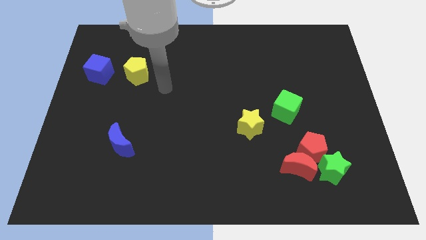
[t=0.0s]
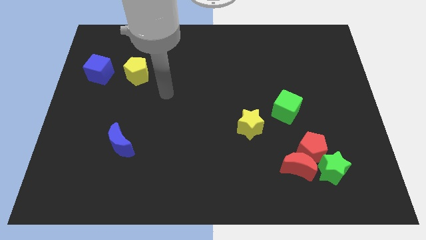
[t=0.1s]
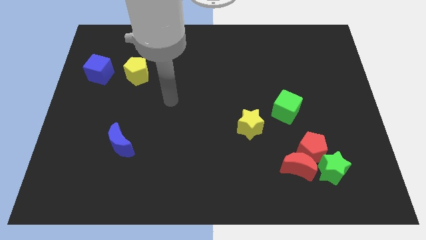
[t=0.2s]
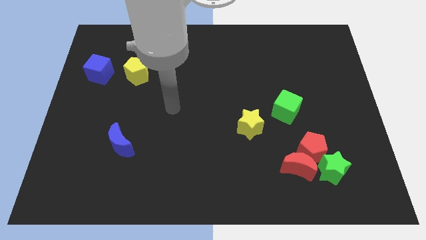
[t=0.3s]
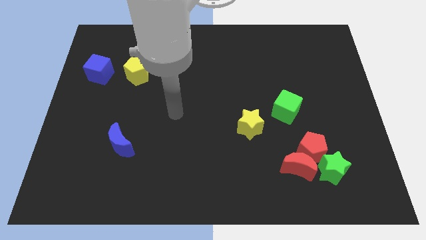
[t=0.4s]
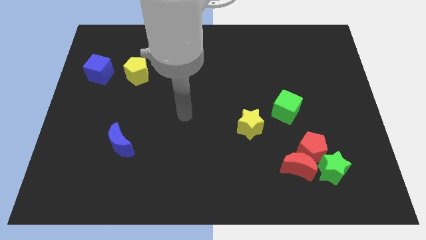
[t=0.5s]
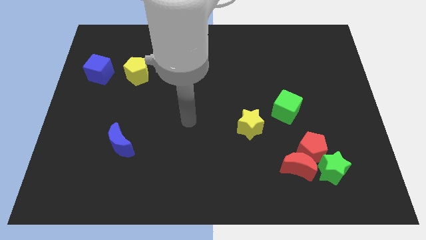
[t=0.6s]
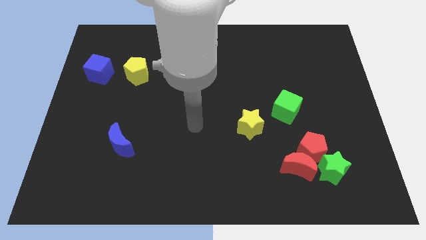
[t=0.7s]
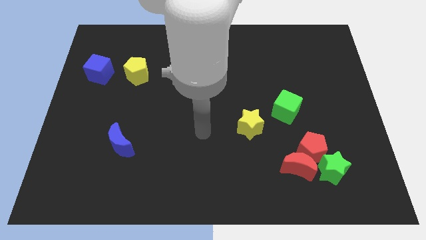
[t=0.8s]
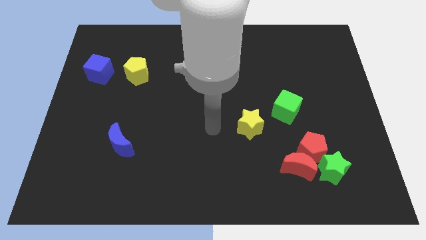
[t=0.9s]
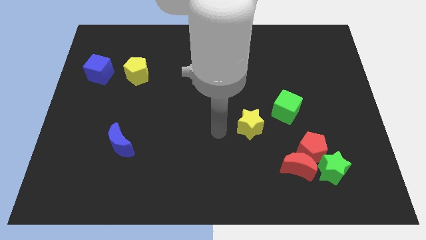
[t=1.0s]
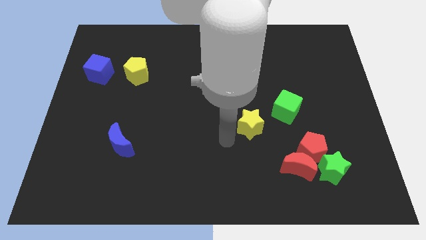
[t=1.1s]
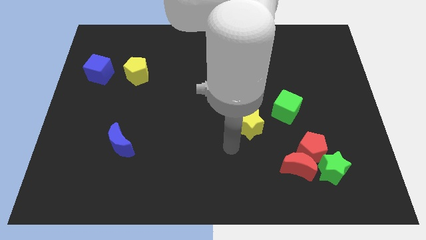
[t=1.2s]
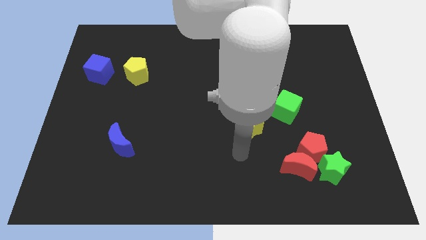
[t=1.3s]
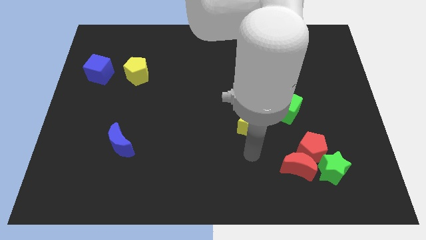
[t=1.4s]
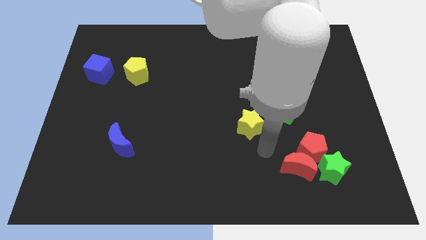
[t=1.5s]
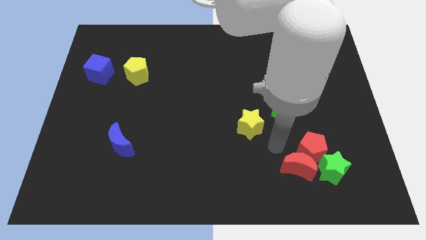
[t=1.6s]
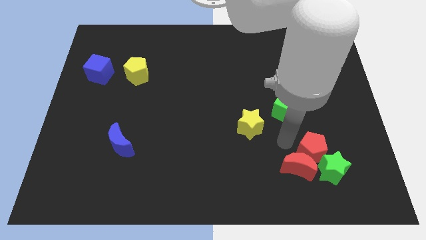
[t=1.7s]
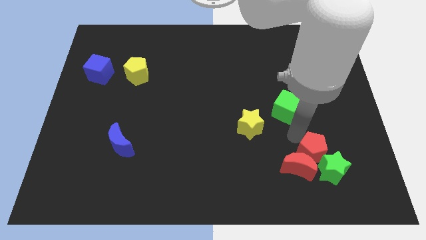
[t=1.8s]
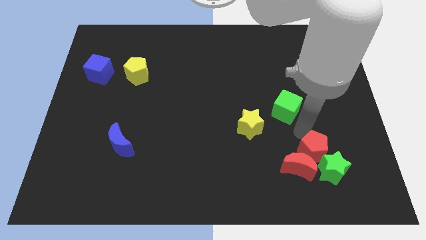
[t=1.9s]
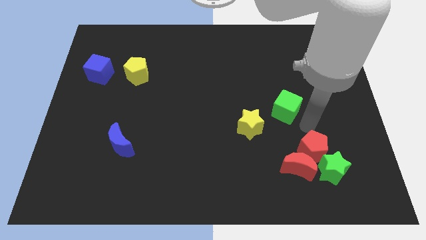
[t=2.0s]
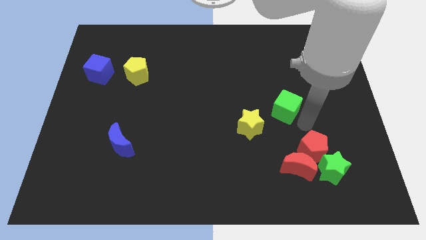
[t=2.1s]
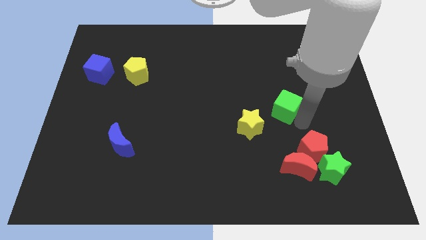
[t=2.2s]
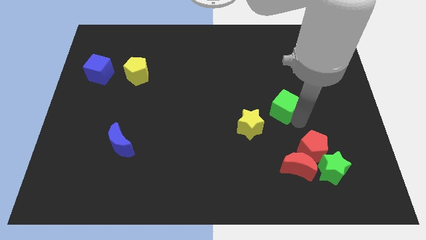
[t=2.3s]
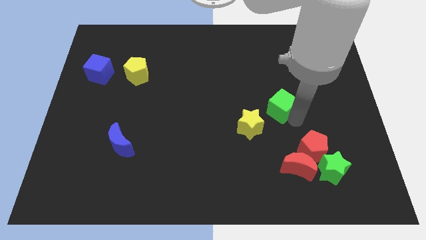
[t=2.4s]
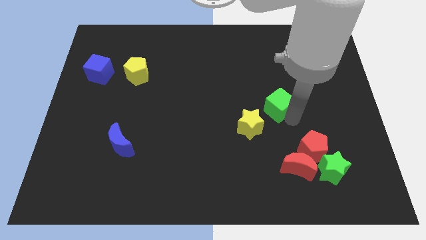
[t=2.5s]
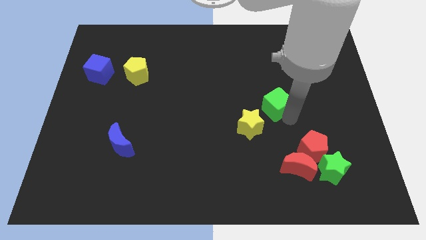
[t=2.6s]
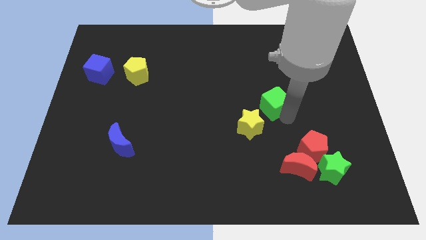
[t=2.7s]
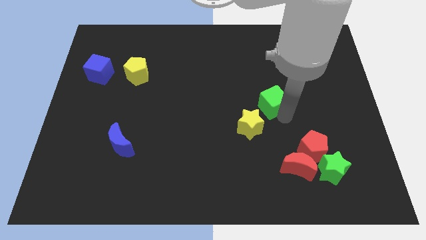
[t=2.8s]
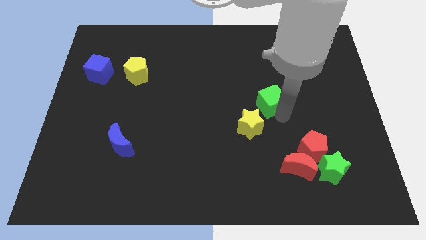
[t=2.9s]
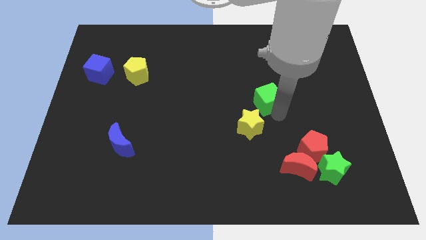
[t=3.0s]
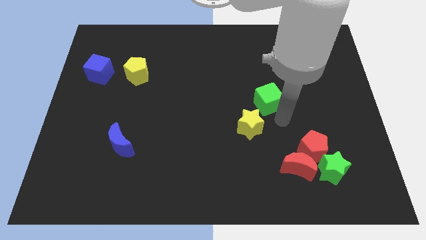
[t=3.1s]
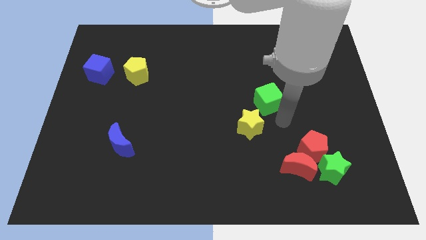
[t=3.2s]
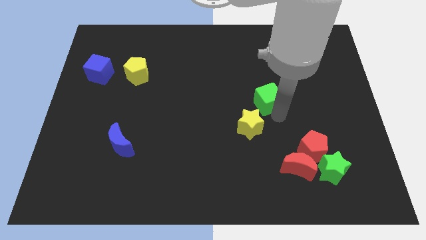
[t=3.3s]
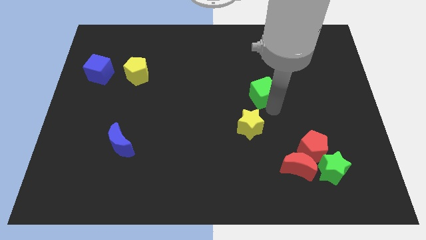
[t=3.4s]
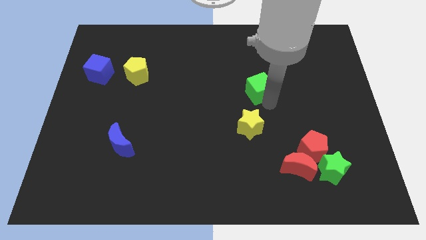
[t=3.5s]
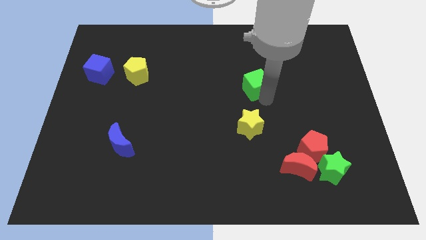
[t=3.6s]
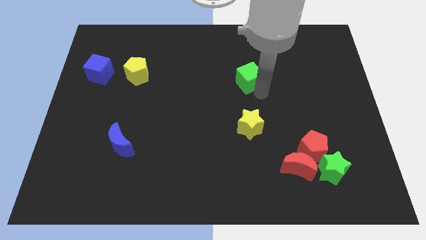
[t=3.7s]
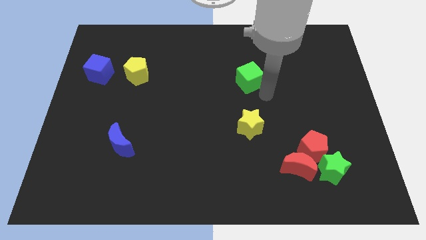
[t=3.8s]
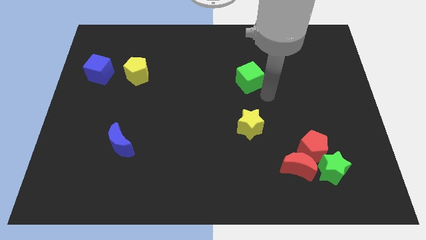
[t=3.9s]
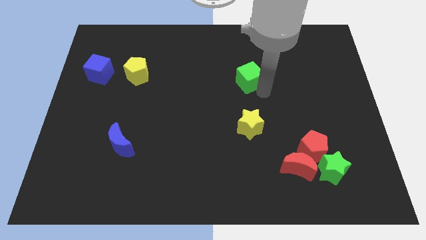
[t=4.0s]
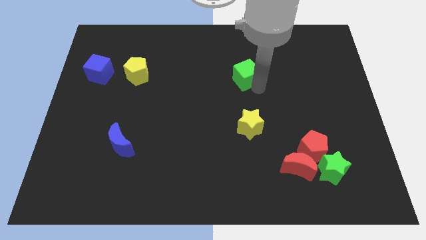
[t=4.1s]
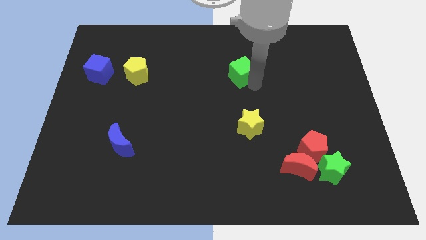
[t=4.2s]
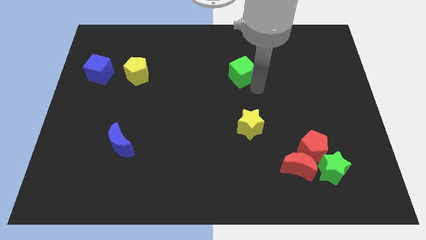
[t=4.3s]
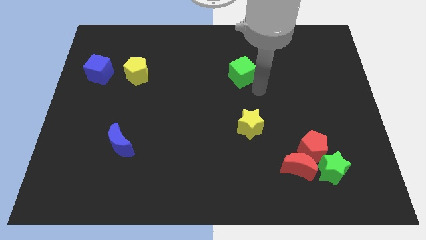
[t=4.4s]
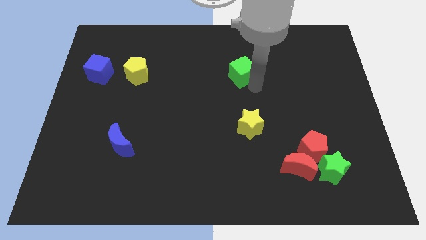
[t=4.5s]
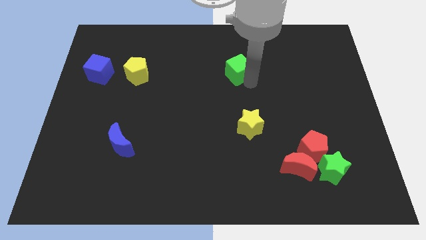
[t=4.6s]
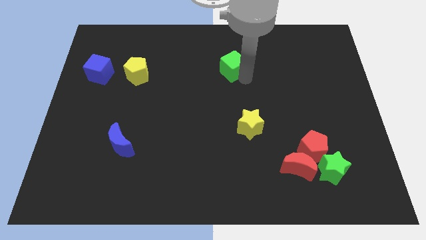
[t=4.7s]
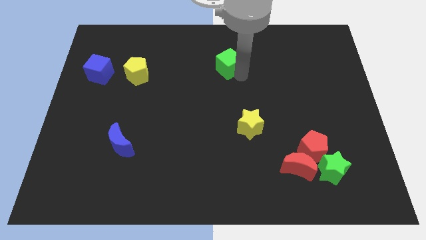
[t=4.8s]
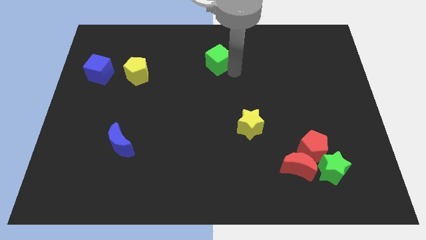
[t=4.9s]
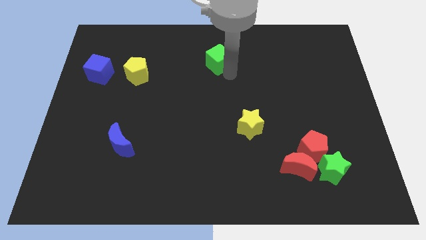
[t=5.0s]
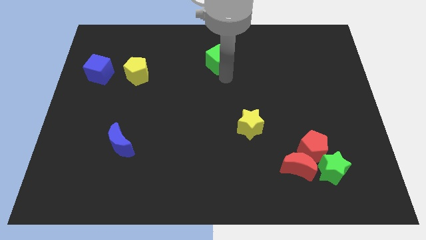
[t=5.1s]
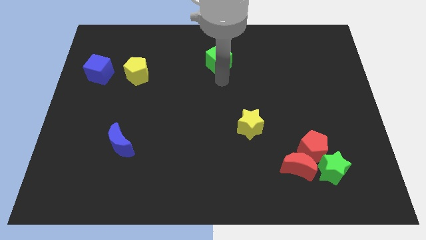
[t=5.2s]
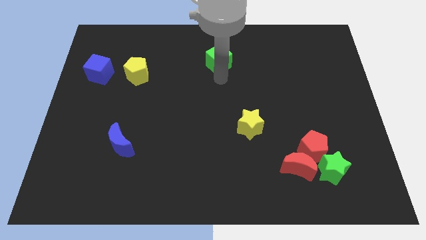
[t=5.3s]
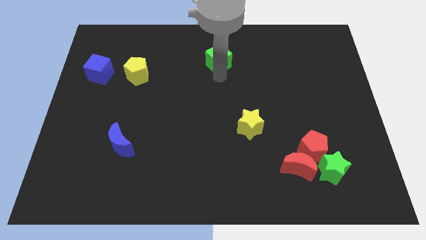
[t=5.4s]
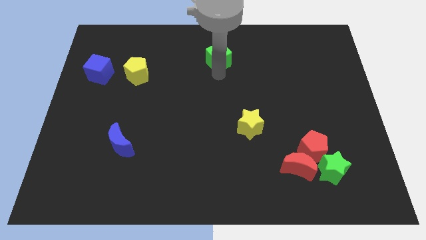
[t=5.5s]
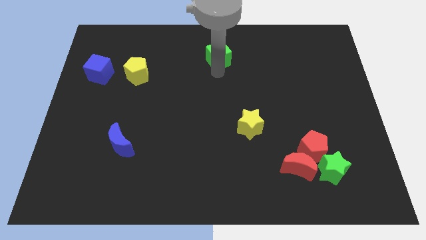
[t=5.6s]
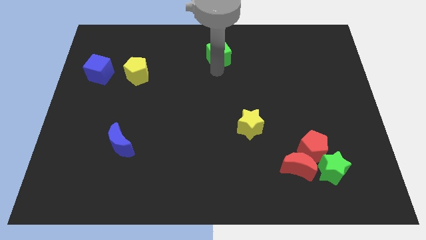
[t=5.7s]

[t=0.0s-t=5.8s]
push the green cube to the towards your base
